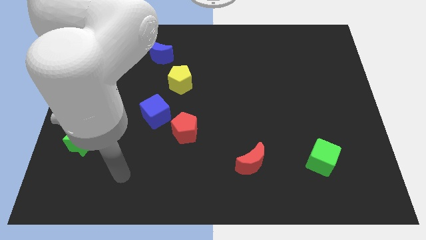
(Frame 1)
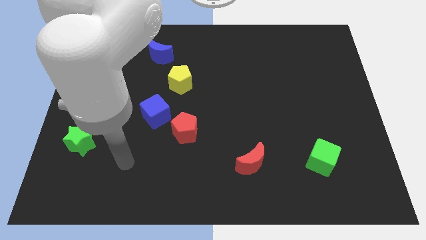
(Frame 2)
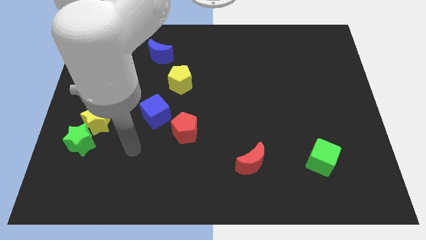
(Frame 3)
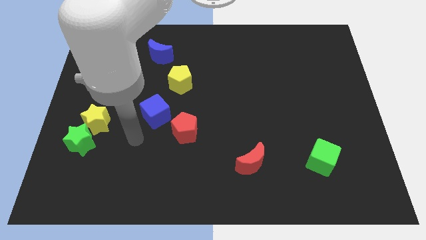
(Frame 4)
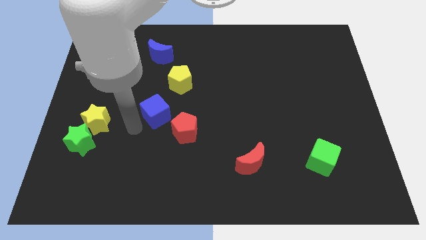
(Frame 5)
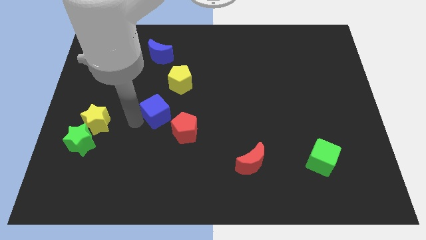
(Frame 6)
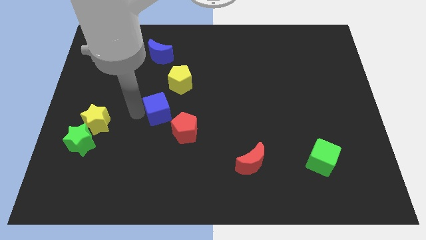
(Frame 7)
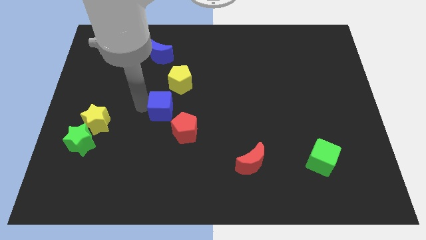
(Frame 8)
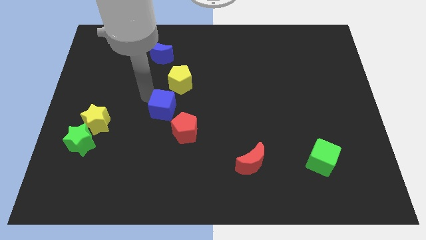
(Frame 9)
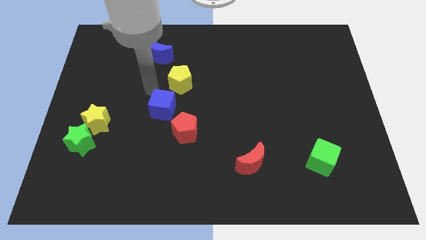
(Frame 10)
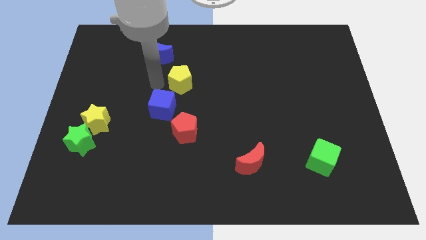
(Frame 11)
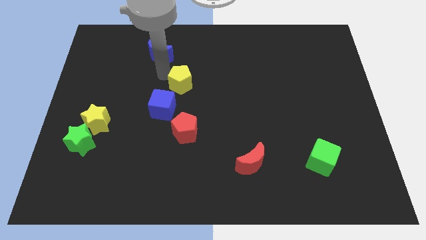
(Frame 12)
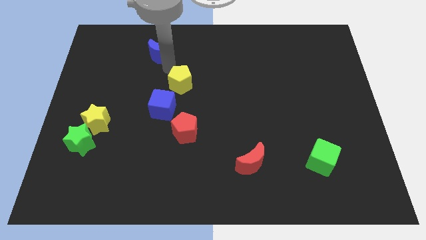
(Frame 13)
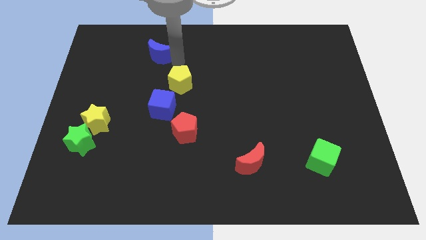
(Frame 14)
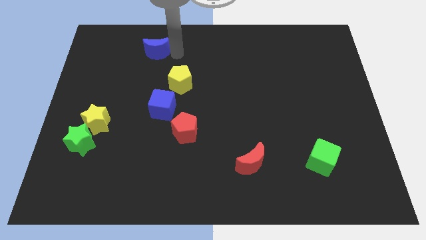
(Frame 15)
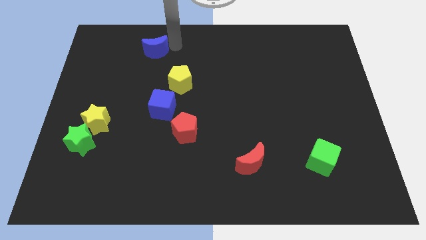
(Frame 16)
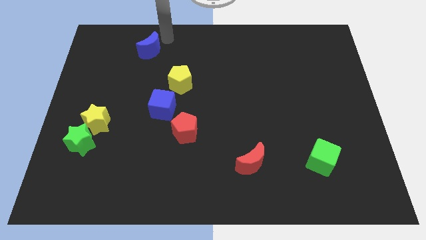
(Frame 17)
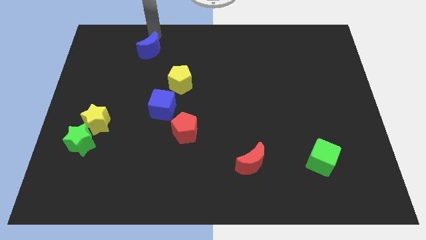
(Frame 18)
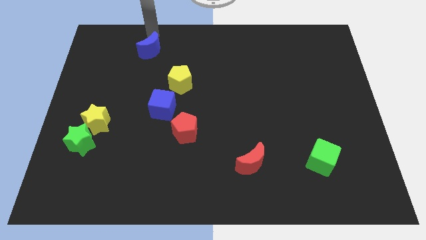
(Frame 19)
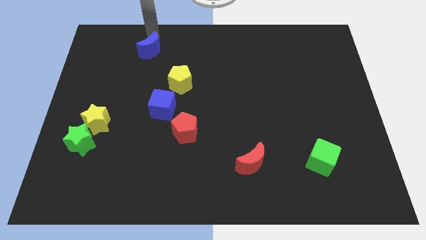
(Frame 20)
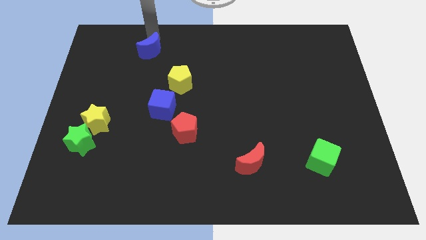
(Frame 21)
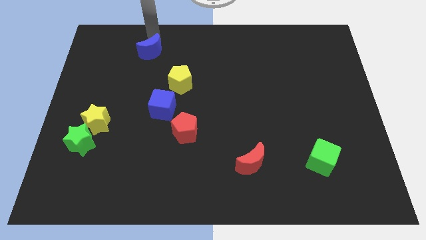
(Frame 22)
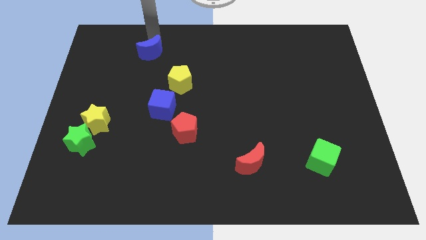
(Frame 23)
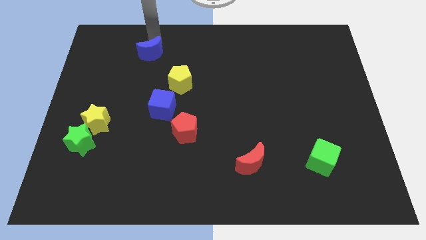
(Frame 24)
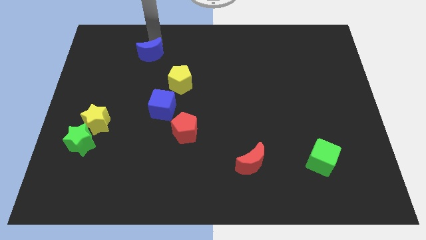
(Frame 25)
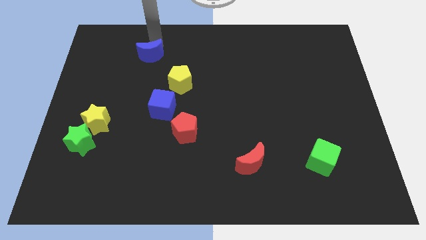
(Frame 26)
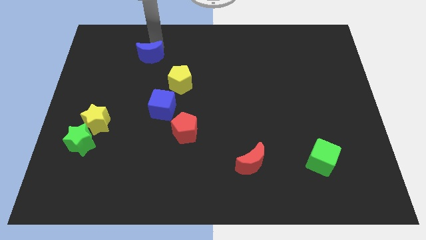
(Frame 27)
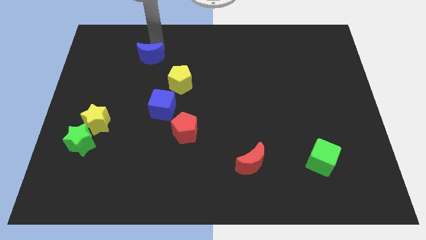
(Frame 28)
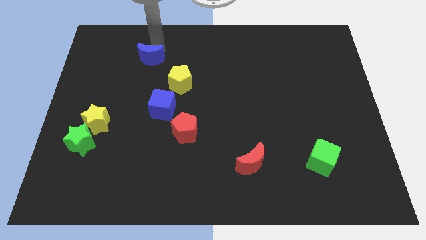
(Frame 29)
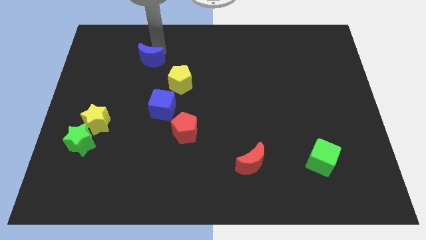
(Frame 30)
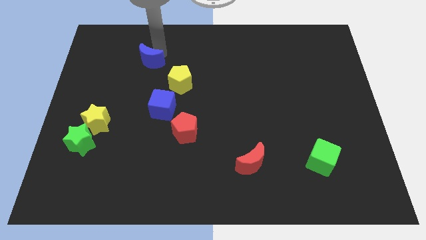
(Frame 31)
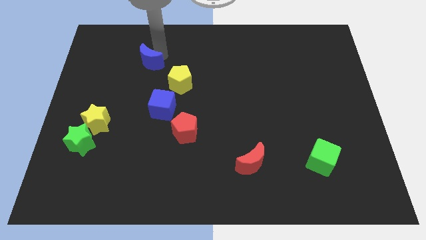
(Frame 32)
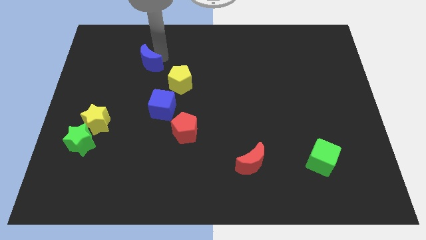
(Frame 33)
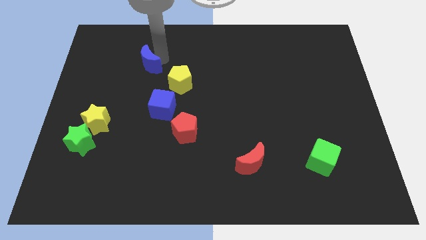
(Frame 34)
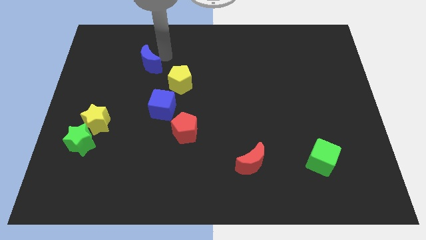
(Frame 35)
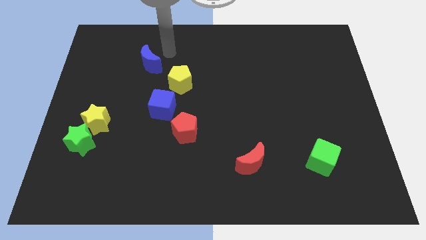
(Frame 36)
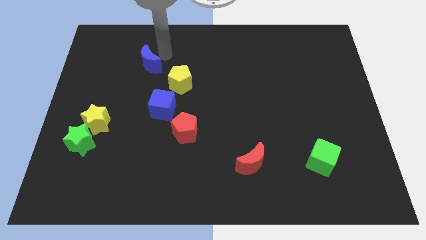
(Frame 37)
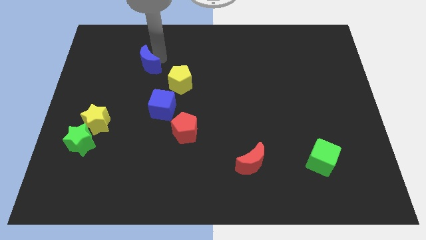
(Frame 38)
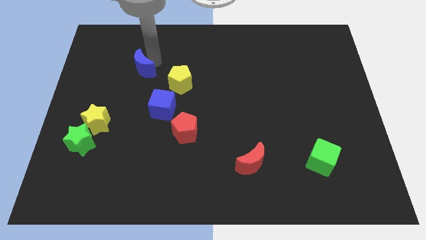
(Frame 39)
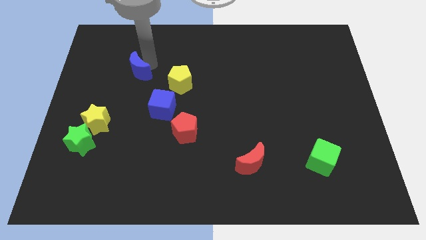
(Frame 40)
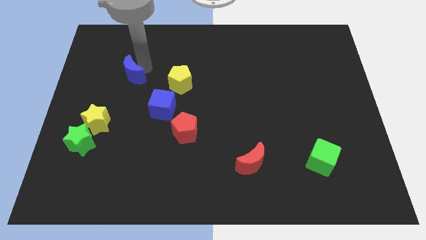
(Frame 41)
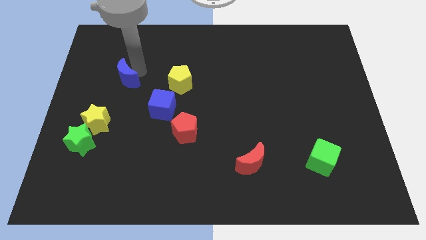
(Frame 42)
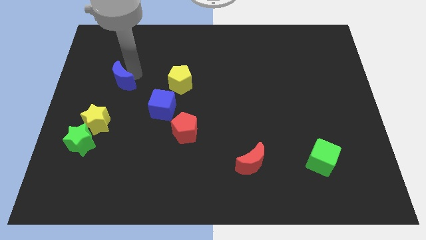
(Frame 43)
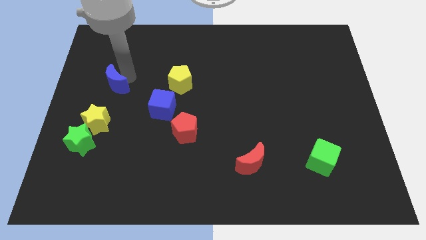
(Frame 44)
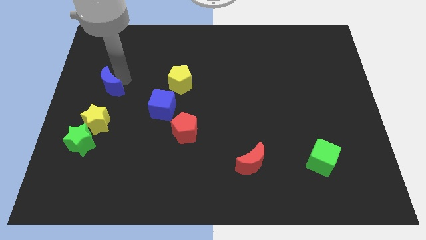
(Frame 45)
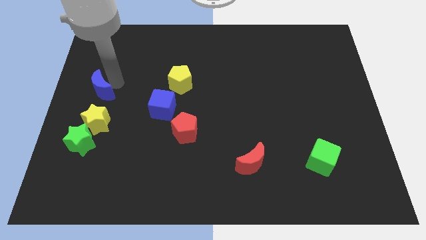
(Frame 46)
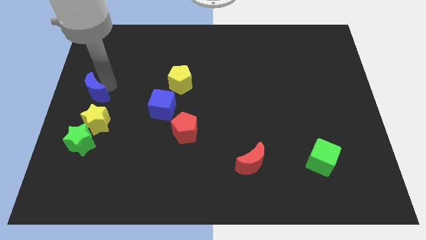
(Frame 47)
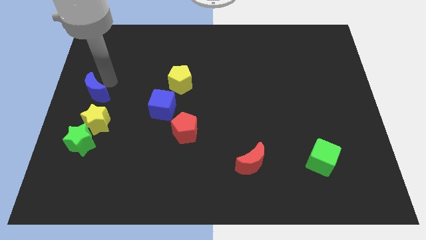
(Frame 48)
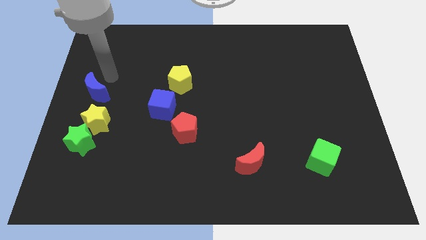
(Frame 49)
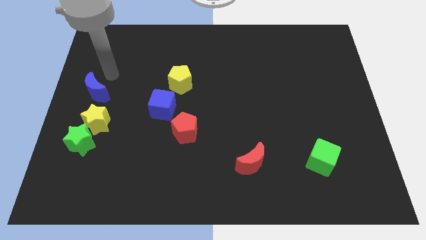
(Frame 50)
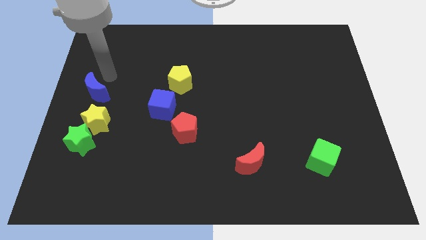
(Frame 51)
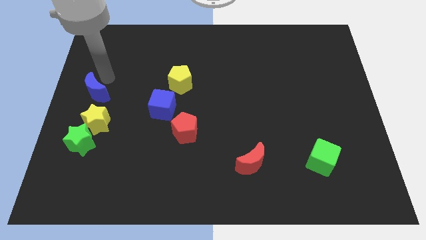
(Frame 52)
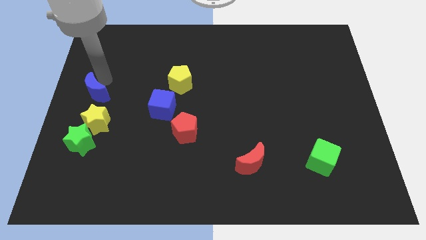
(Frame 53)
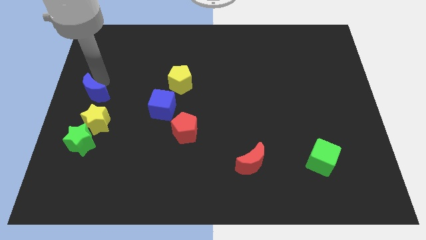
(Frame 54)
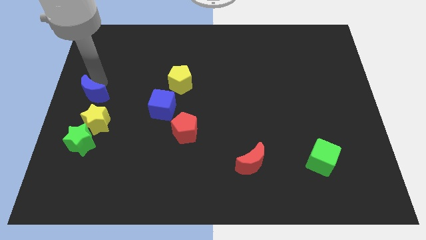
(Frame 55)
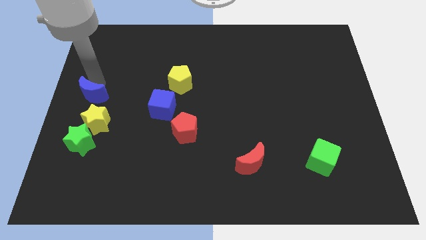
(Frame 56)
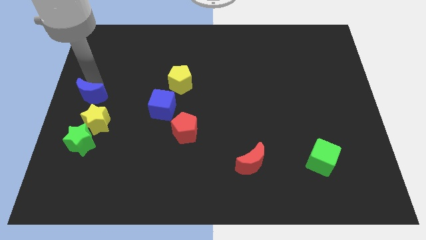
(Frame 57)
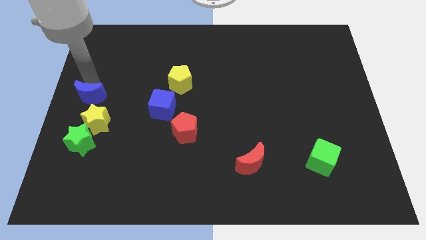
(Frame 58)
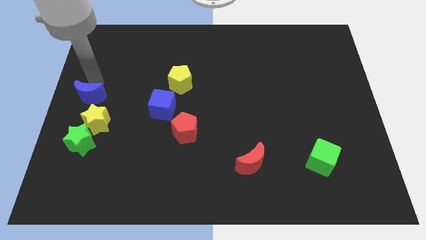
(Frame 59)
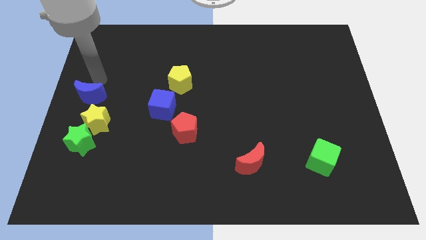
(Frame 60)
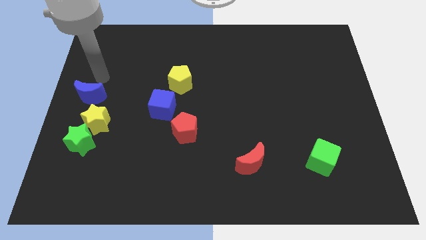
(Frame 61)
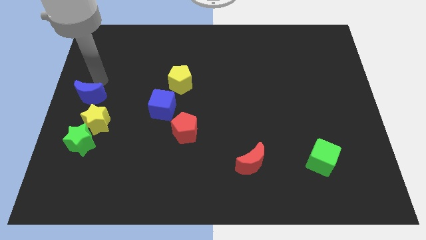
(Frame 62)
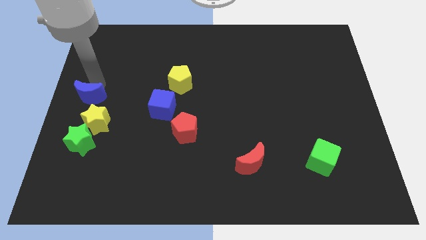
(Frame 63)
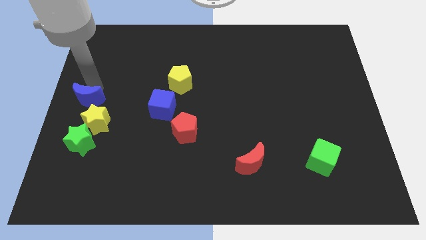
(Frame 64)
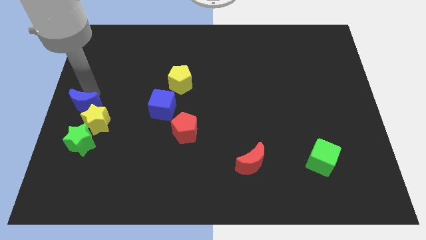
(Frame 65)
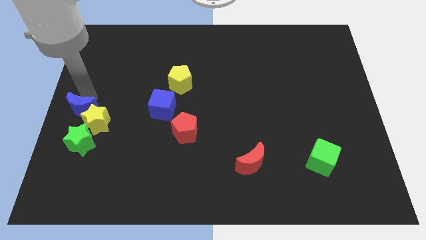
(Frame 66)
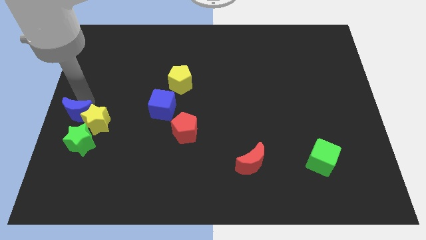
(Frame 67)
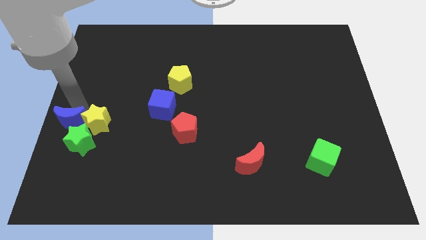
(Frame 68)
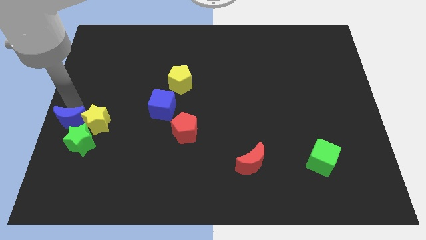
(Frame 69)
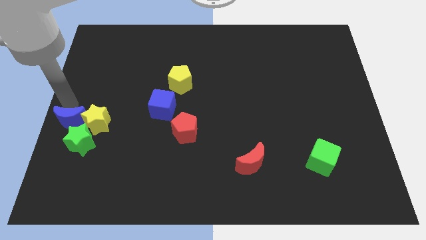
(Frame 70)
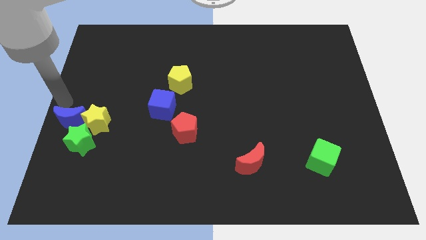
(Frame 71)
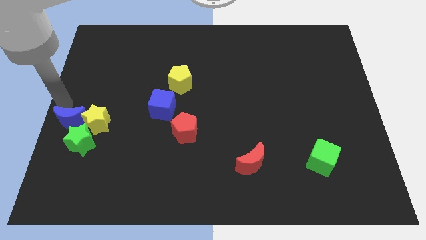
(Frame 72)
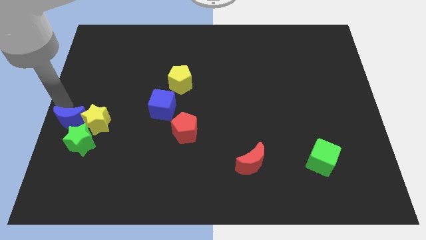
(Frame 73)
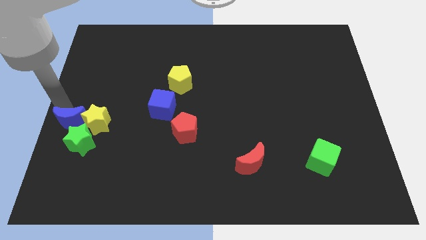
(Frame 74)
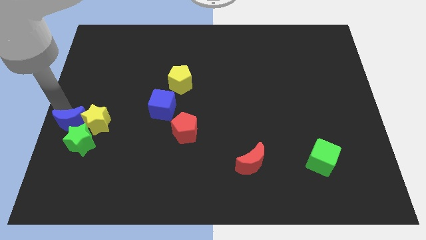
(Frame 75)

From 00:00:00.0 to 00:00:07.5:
slide the blue moon towards the green star

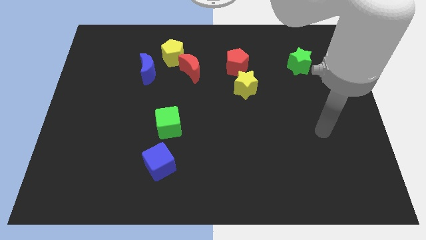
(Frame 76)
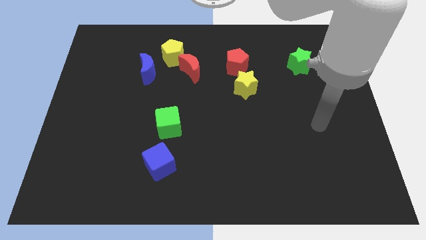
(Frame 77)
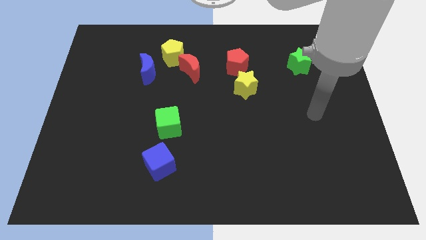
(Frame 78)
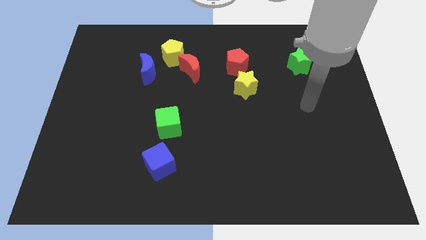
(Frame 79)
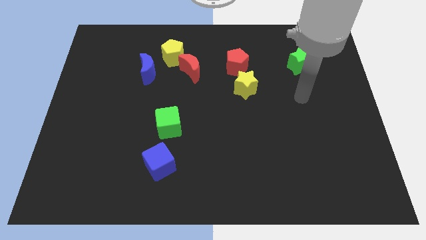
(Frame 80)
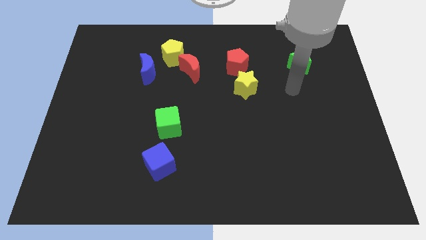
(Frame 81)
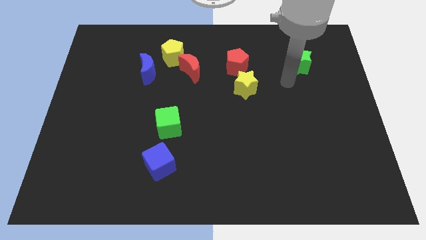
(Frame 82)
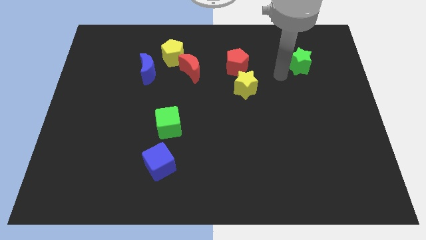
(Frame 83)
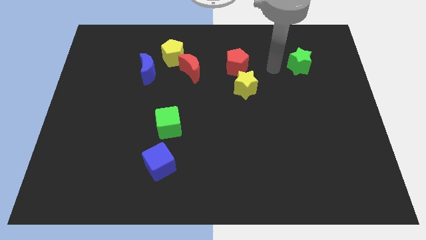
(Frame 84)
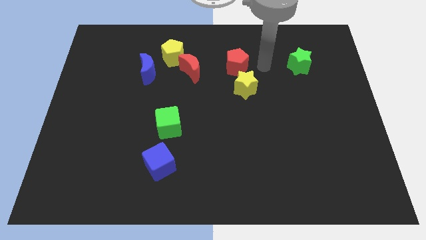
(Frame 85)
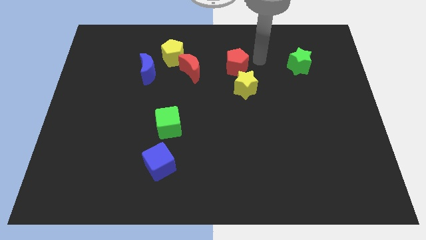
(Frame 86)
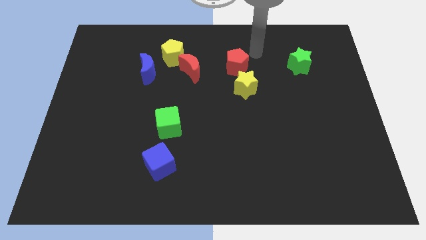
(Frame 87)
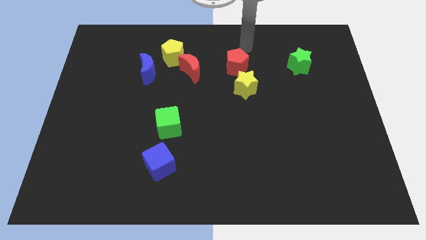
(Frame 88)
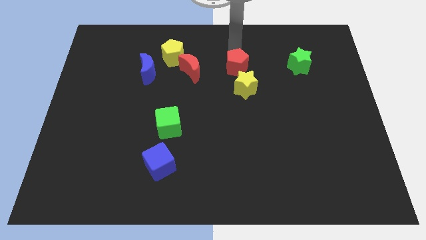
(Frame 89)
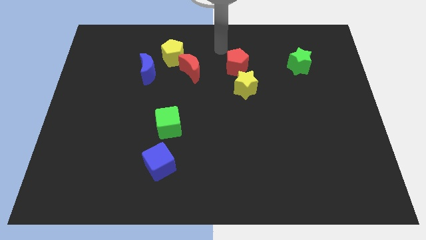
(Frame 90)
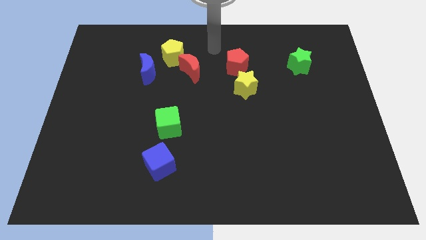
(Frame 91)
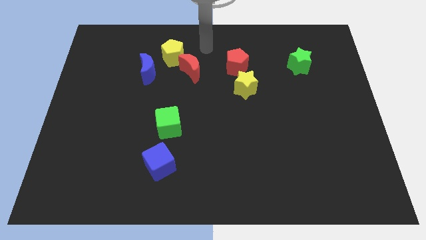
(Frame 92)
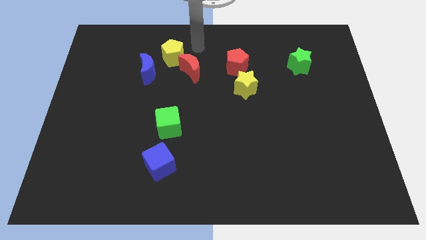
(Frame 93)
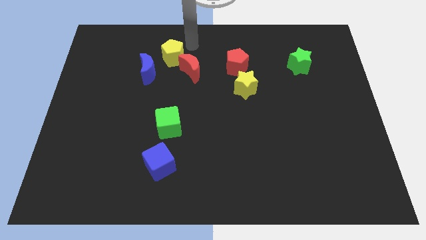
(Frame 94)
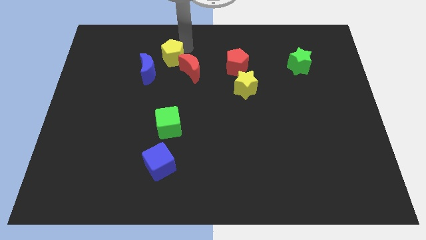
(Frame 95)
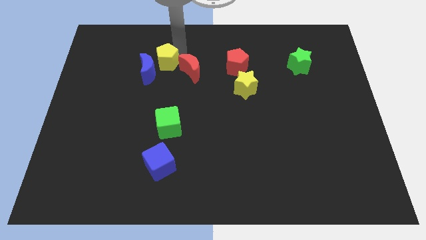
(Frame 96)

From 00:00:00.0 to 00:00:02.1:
slide the yellow pentagon close to the blue moon
